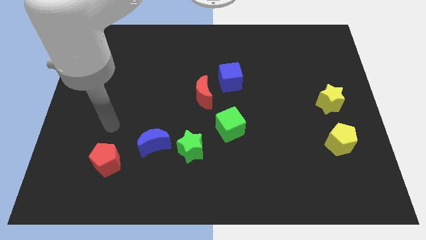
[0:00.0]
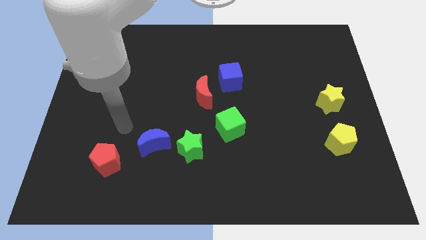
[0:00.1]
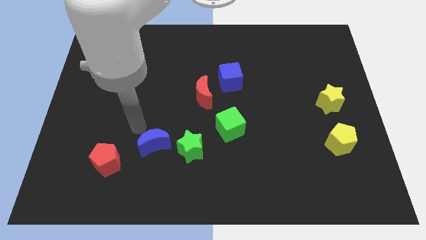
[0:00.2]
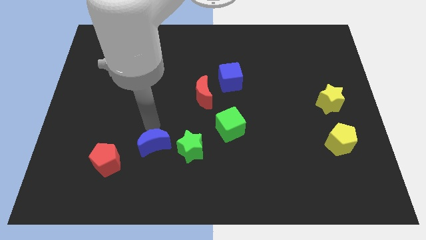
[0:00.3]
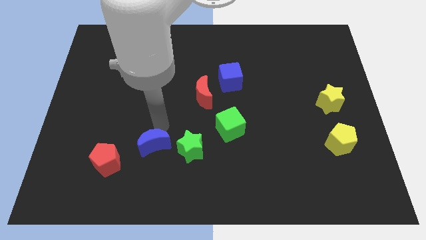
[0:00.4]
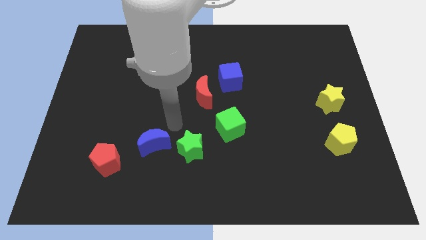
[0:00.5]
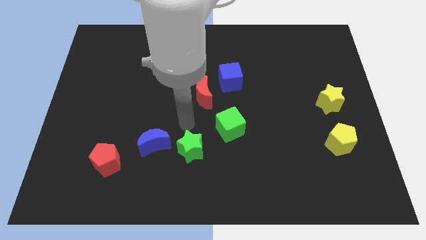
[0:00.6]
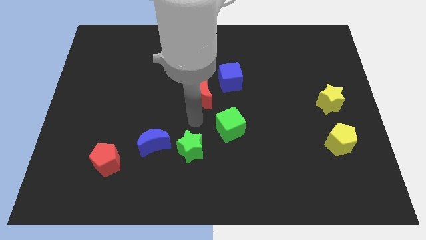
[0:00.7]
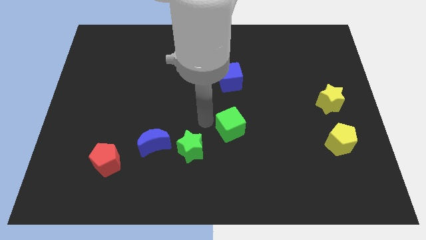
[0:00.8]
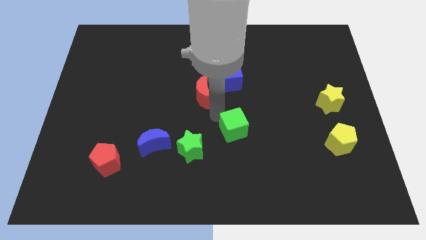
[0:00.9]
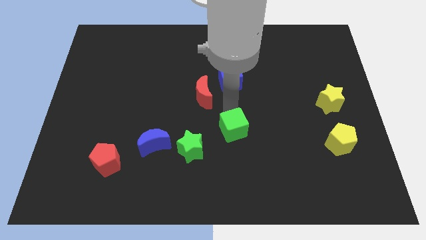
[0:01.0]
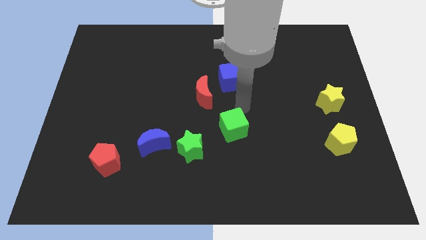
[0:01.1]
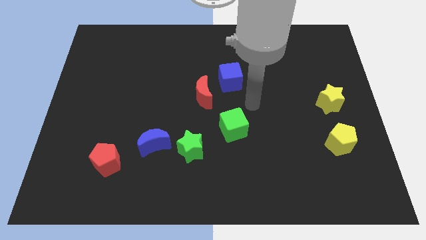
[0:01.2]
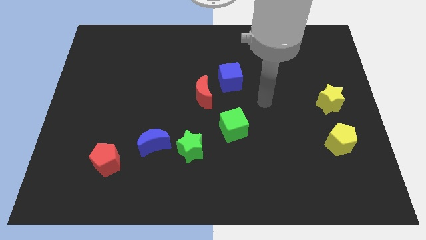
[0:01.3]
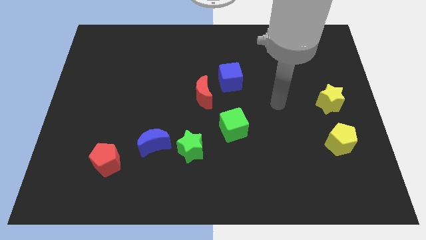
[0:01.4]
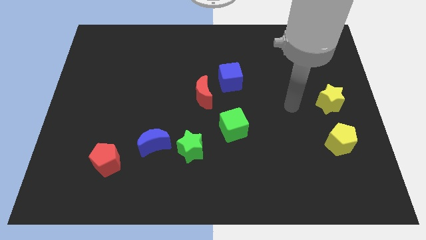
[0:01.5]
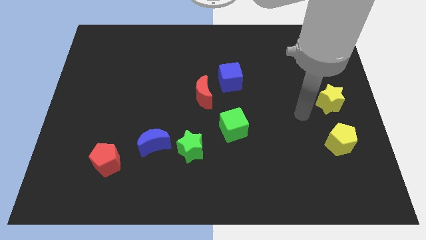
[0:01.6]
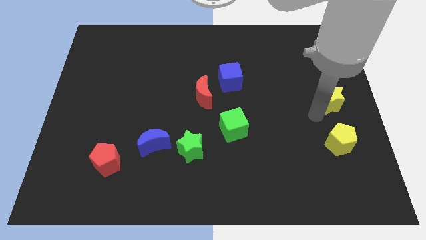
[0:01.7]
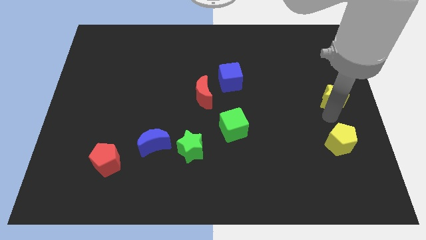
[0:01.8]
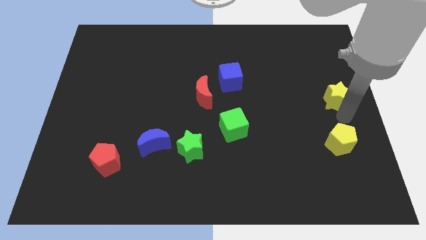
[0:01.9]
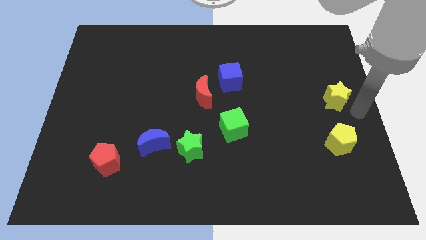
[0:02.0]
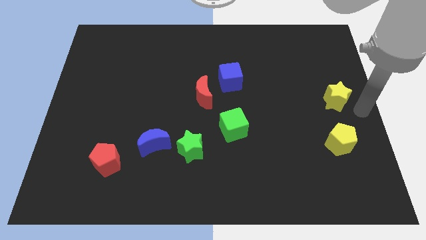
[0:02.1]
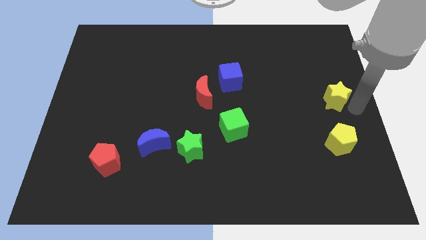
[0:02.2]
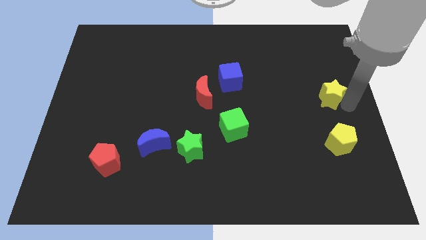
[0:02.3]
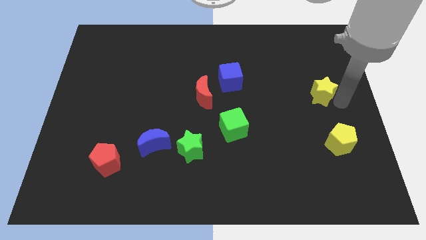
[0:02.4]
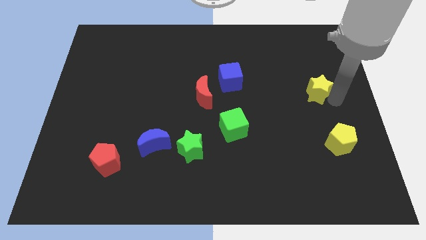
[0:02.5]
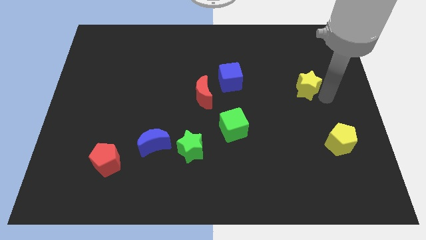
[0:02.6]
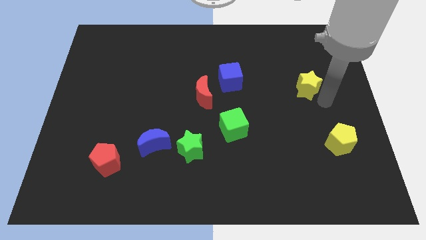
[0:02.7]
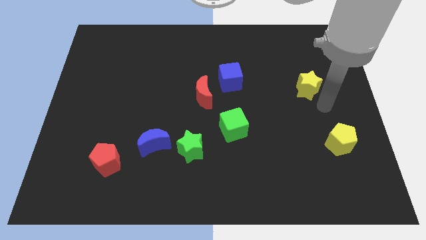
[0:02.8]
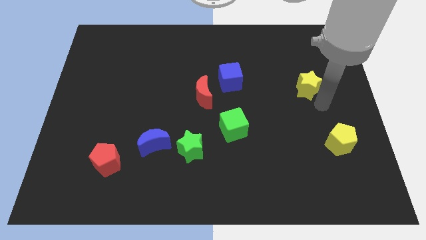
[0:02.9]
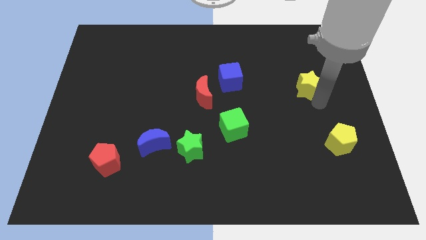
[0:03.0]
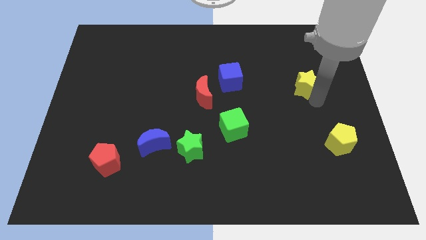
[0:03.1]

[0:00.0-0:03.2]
move the yellow star up and to the left diagonally slightly

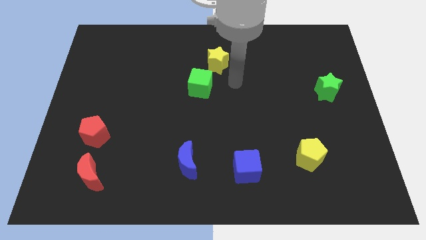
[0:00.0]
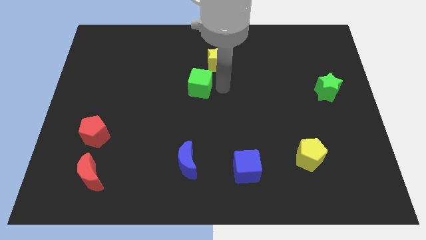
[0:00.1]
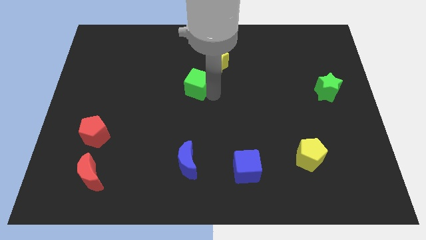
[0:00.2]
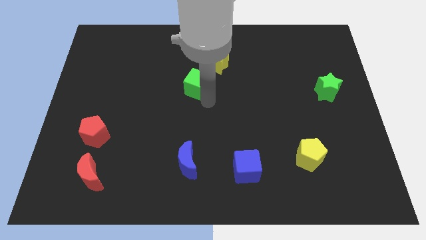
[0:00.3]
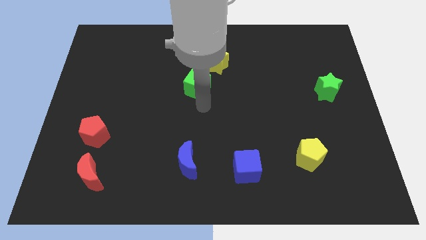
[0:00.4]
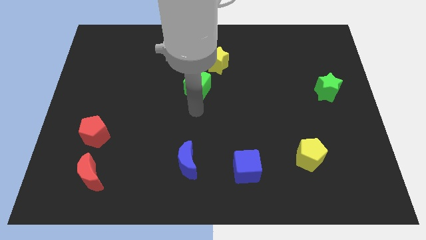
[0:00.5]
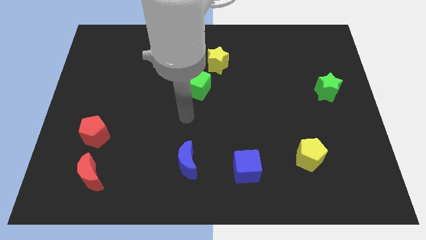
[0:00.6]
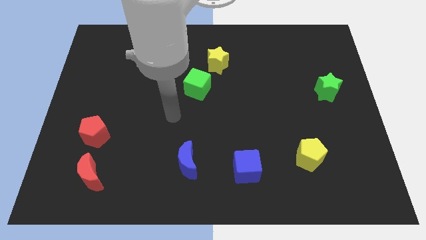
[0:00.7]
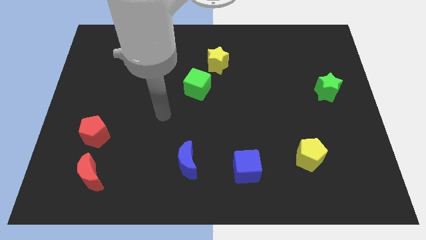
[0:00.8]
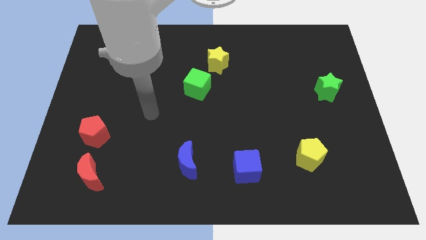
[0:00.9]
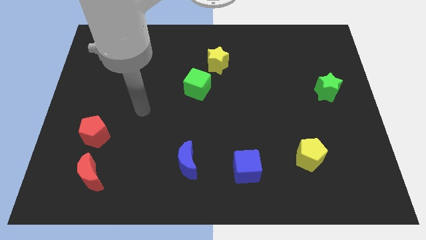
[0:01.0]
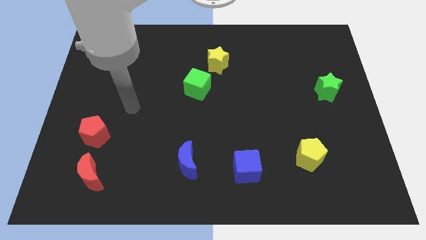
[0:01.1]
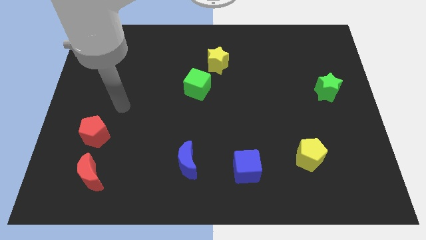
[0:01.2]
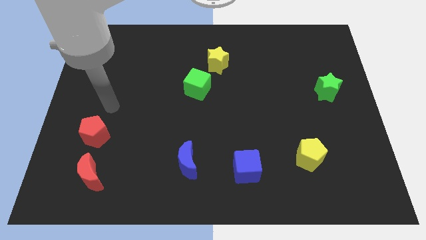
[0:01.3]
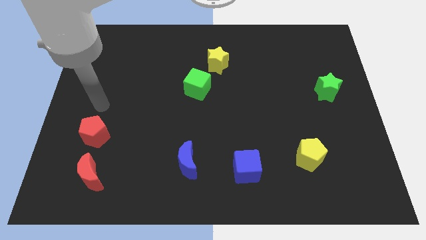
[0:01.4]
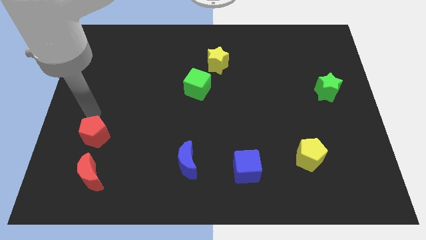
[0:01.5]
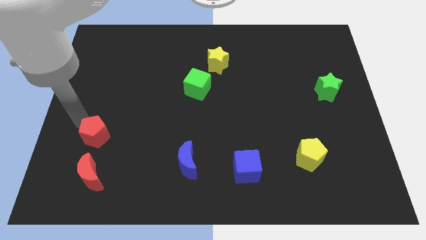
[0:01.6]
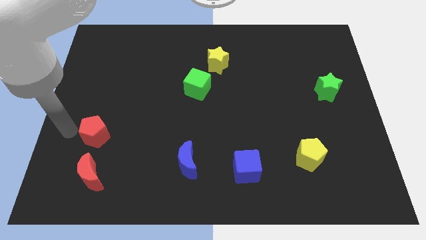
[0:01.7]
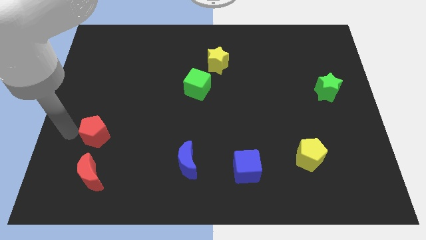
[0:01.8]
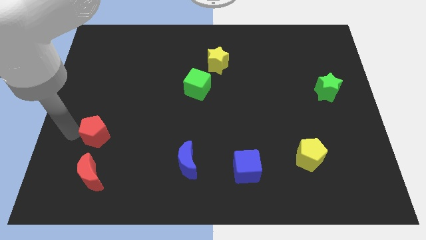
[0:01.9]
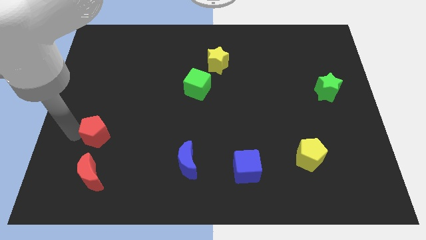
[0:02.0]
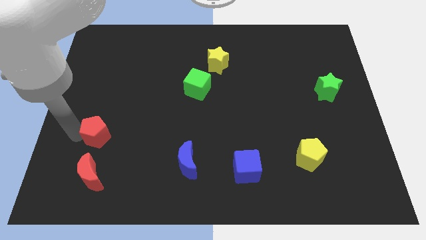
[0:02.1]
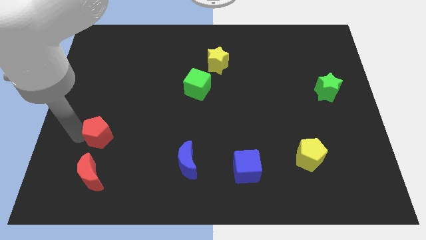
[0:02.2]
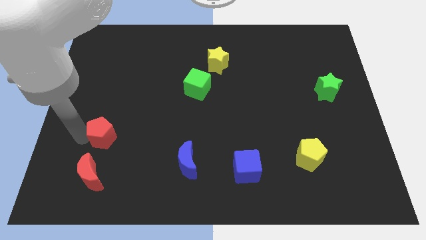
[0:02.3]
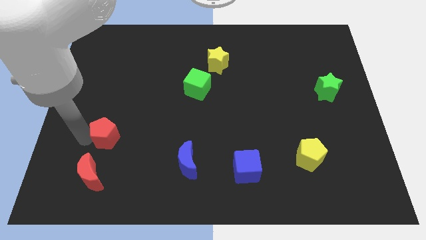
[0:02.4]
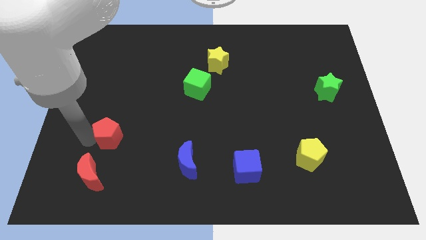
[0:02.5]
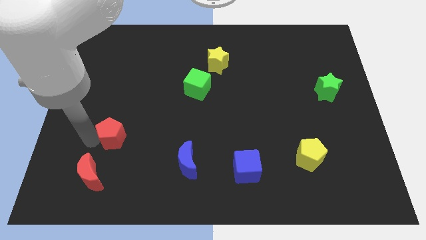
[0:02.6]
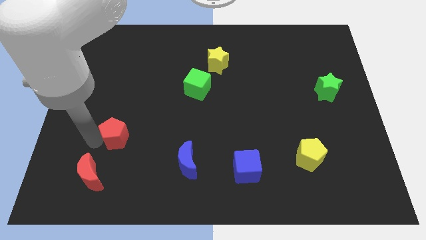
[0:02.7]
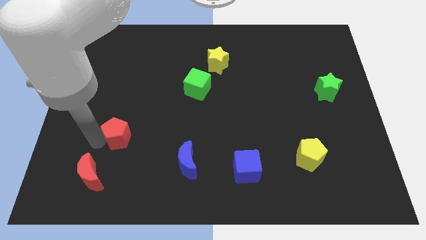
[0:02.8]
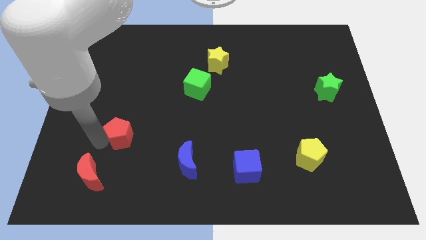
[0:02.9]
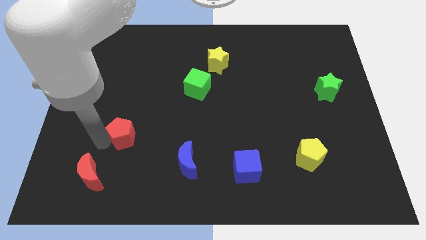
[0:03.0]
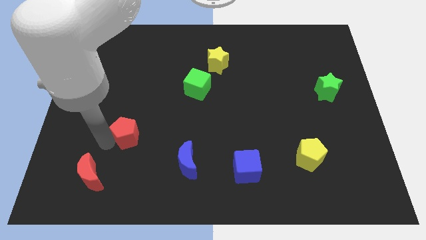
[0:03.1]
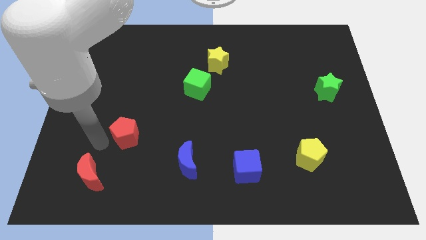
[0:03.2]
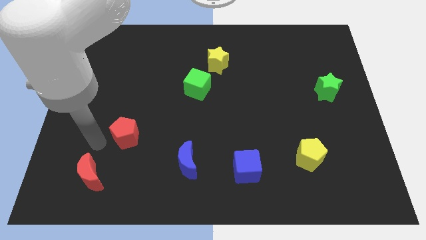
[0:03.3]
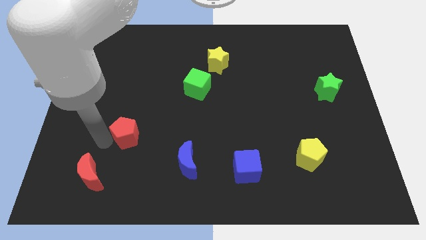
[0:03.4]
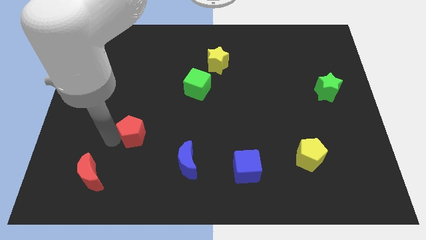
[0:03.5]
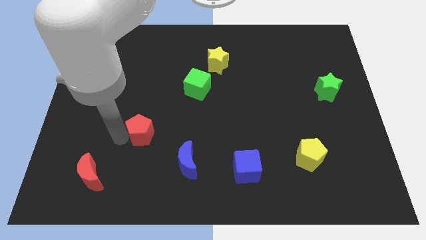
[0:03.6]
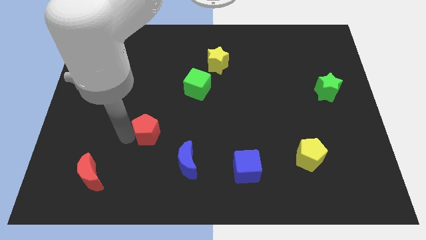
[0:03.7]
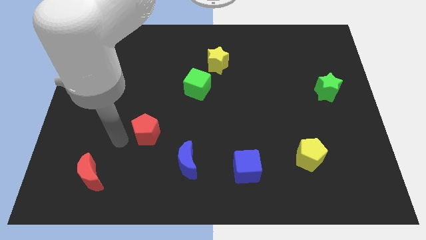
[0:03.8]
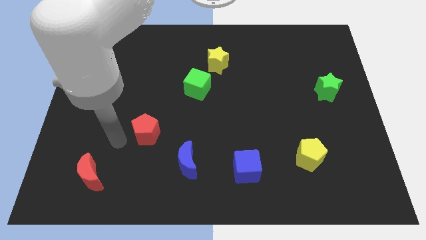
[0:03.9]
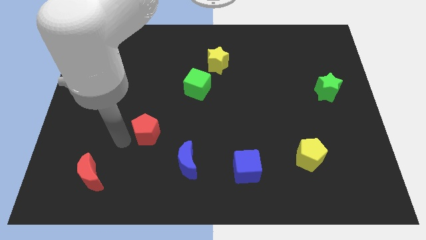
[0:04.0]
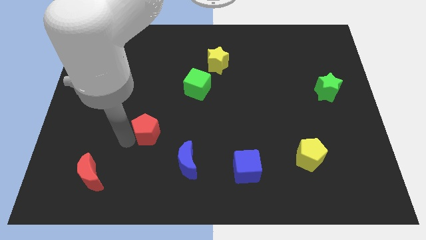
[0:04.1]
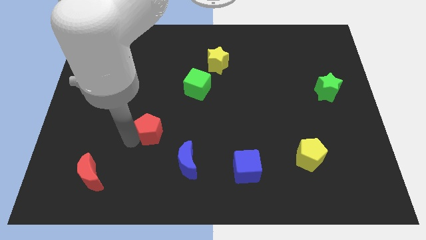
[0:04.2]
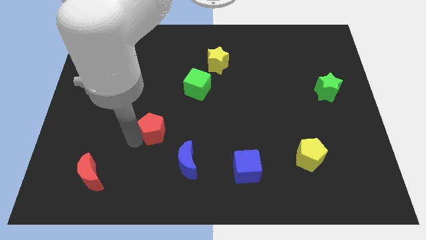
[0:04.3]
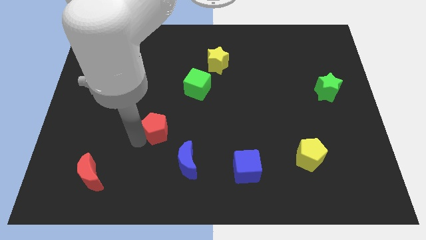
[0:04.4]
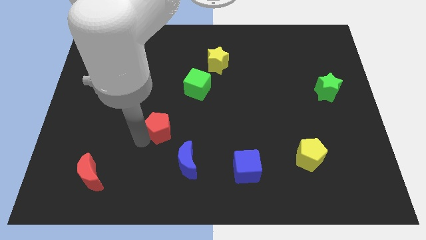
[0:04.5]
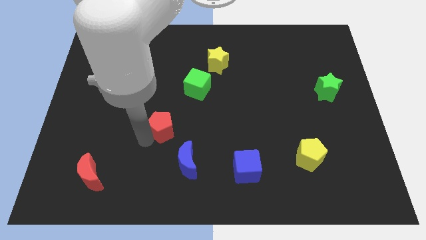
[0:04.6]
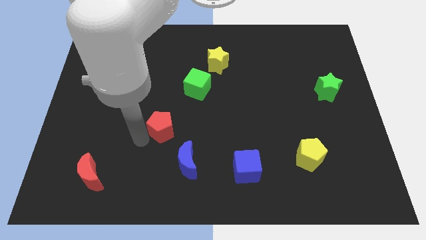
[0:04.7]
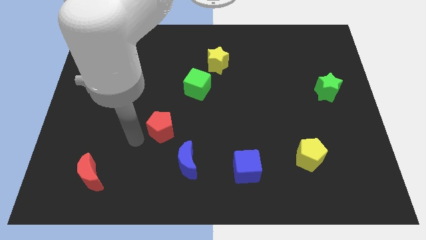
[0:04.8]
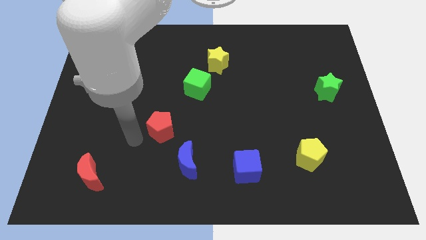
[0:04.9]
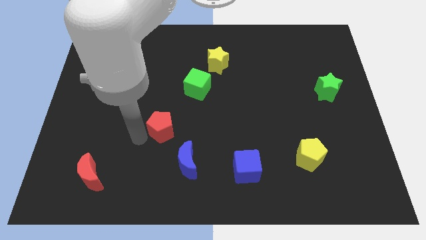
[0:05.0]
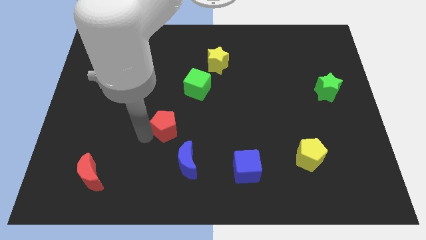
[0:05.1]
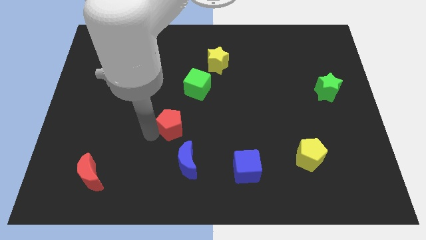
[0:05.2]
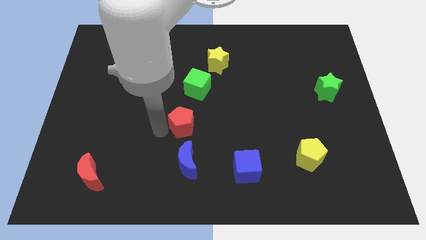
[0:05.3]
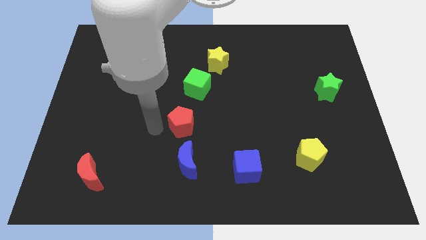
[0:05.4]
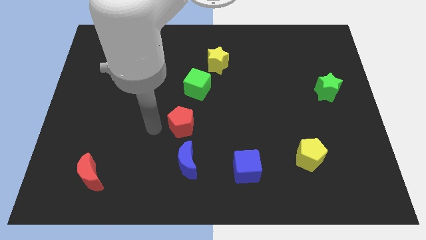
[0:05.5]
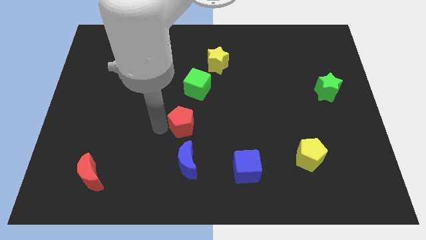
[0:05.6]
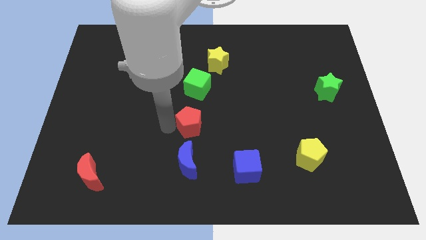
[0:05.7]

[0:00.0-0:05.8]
push the red pentagon to the right
